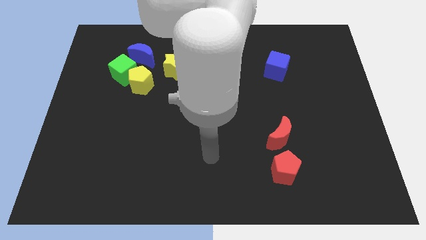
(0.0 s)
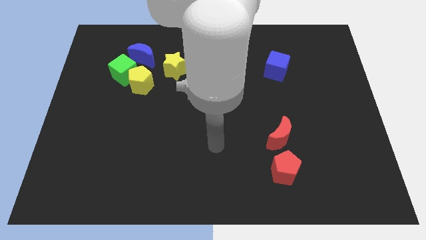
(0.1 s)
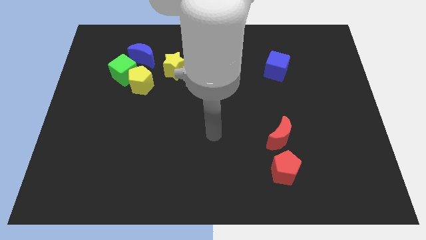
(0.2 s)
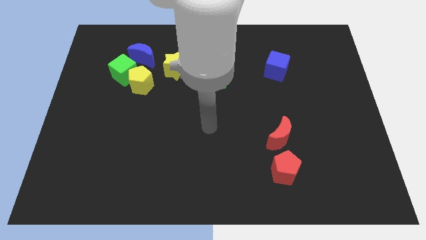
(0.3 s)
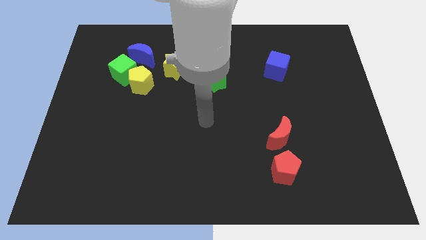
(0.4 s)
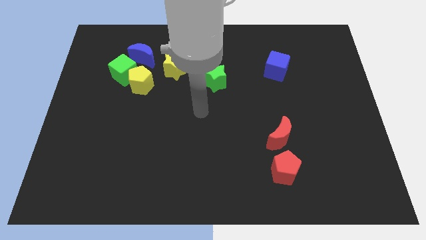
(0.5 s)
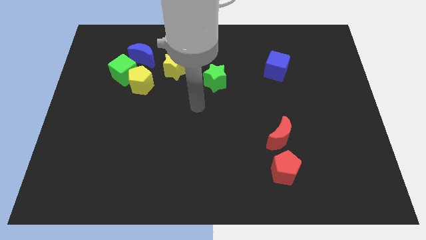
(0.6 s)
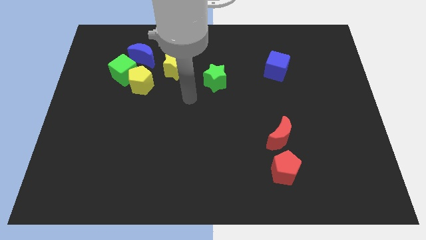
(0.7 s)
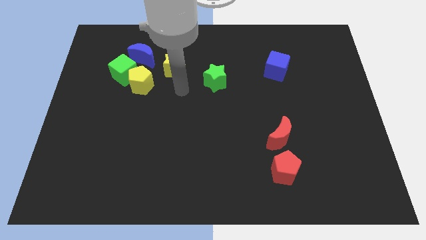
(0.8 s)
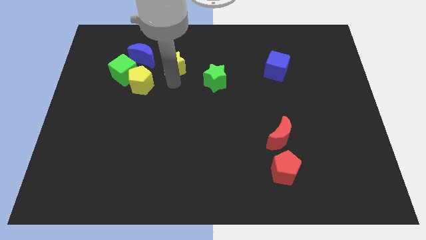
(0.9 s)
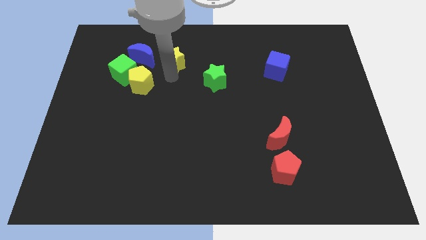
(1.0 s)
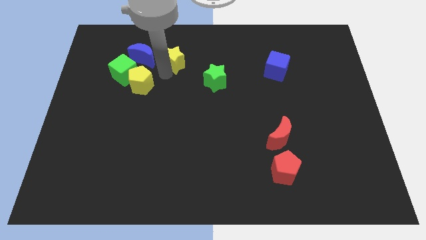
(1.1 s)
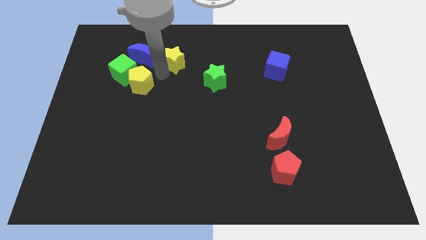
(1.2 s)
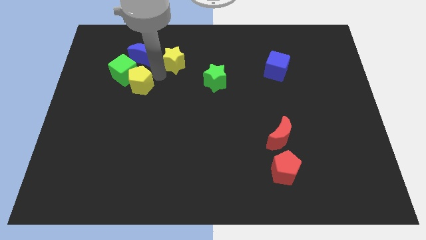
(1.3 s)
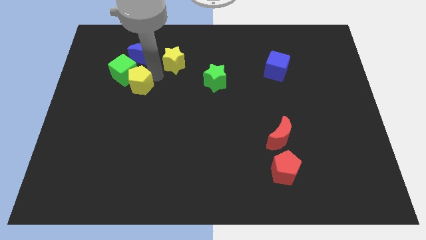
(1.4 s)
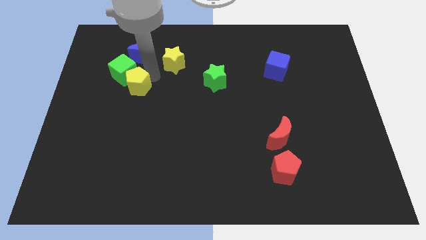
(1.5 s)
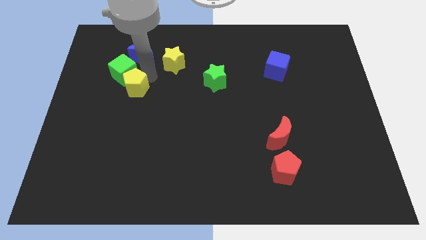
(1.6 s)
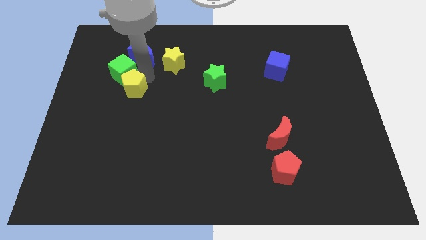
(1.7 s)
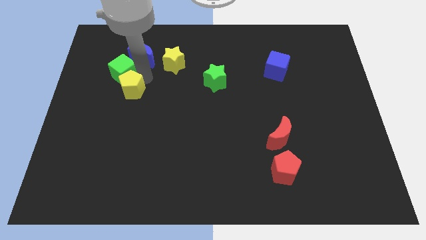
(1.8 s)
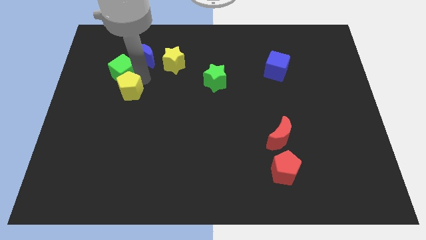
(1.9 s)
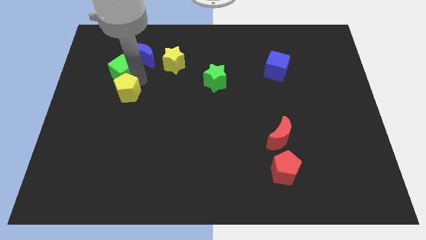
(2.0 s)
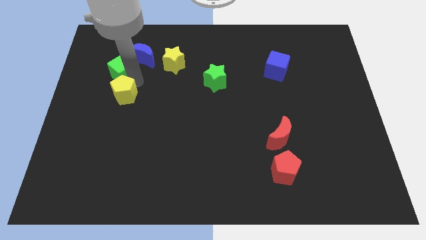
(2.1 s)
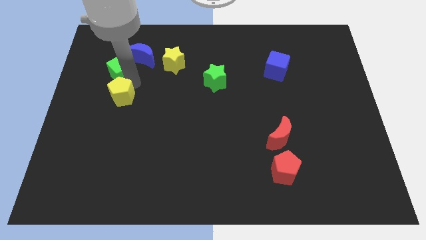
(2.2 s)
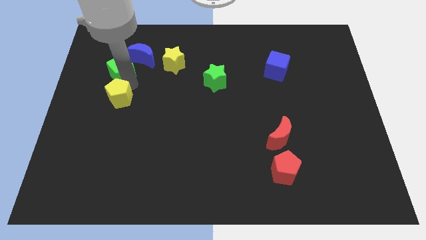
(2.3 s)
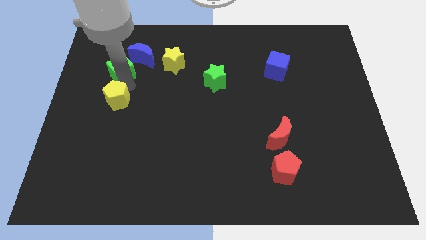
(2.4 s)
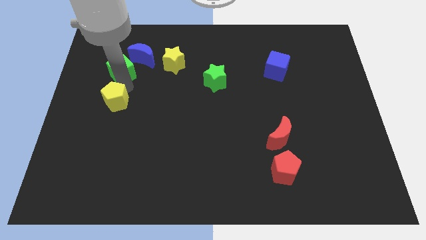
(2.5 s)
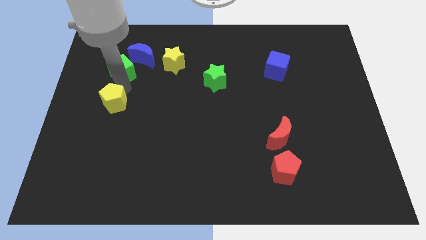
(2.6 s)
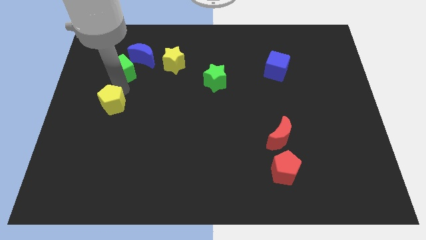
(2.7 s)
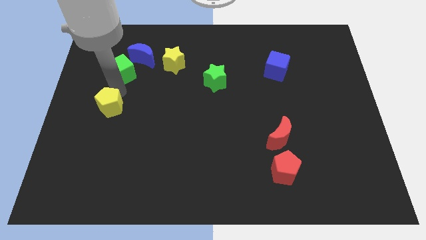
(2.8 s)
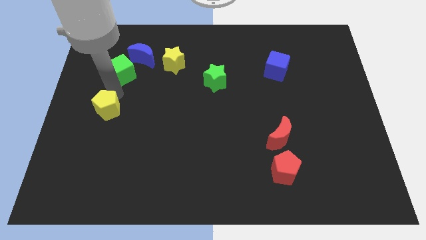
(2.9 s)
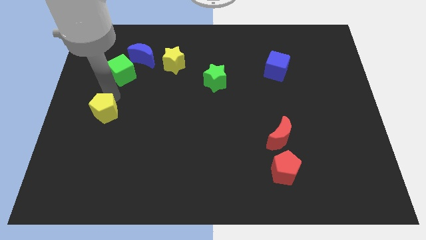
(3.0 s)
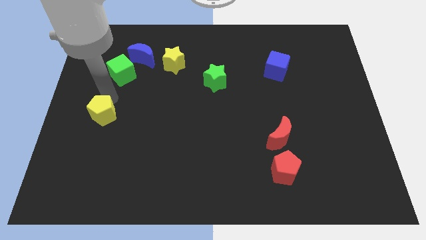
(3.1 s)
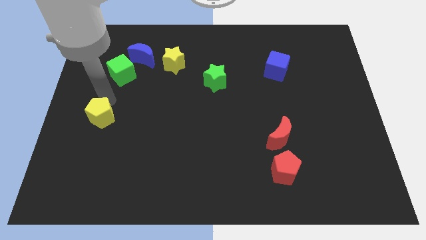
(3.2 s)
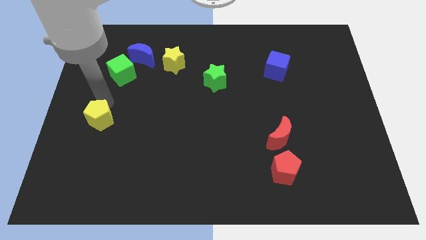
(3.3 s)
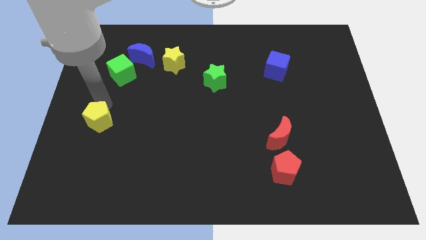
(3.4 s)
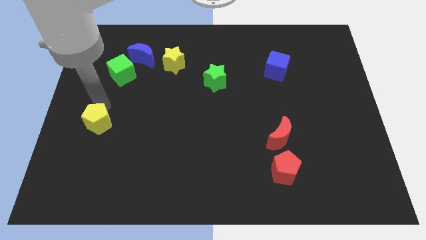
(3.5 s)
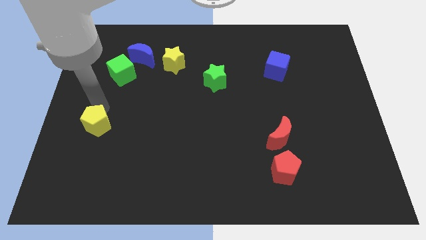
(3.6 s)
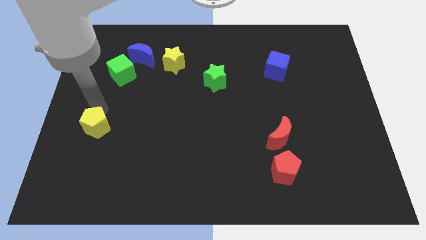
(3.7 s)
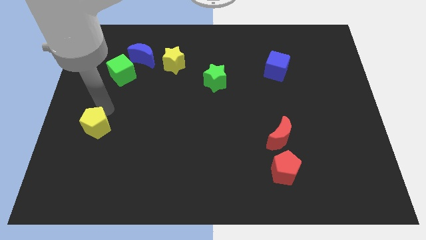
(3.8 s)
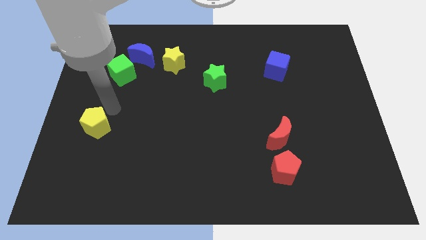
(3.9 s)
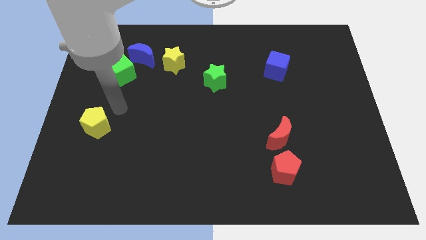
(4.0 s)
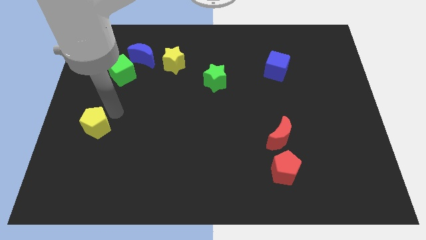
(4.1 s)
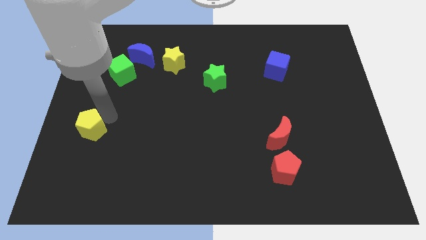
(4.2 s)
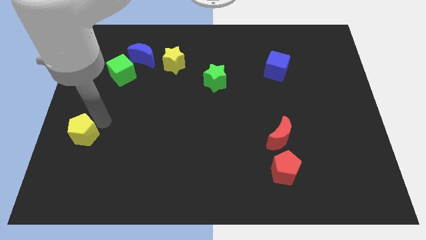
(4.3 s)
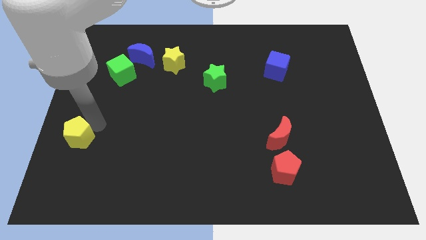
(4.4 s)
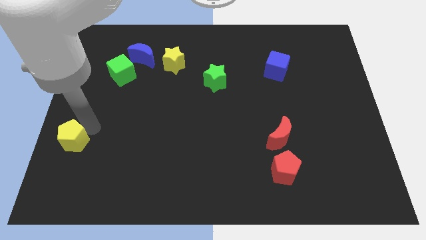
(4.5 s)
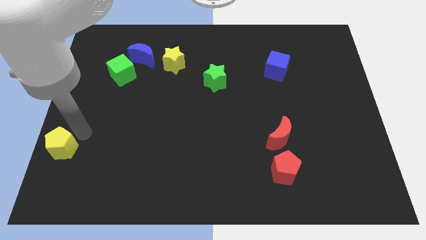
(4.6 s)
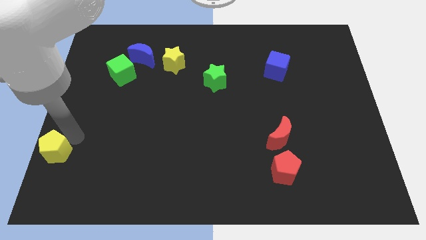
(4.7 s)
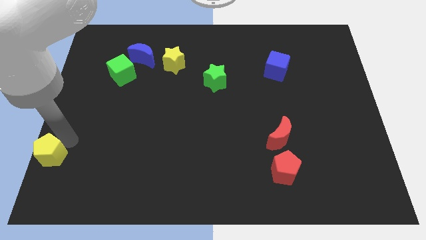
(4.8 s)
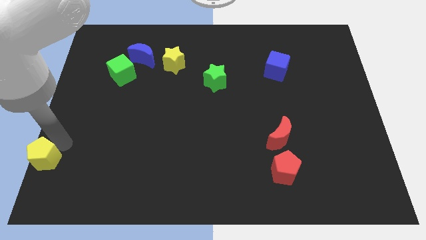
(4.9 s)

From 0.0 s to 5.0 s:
slide the yellow pentagon to the bottom left corner

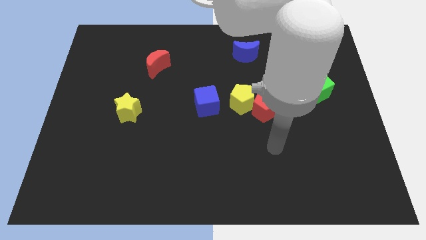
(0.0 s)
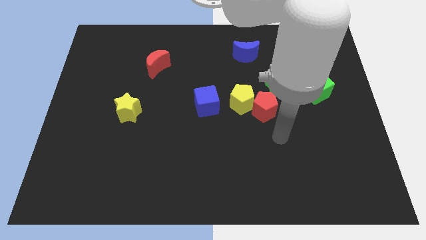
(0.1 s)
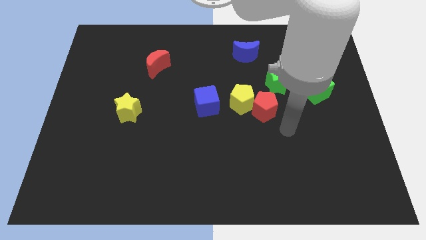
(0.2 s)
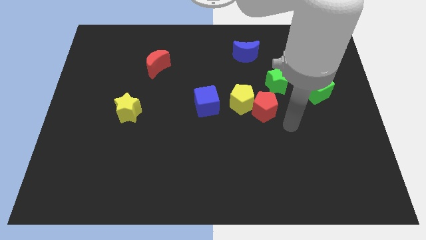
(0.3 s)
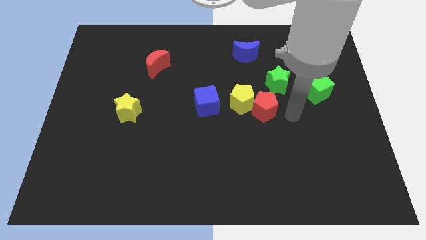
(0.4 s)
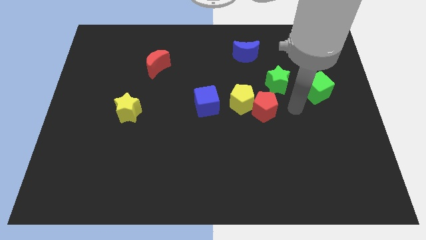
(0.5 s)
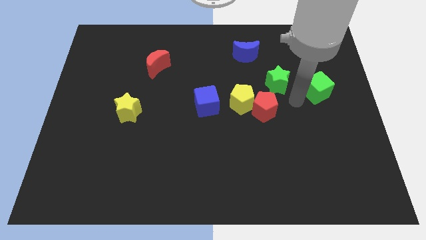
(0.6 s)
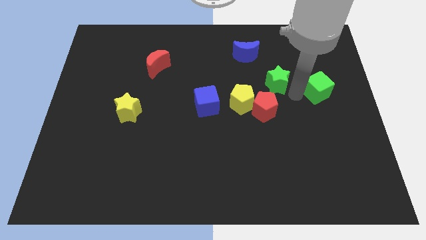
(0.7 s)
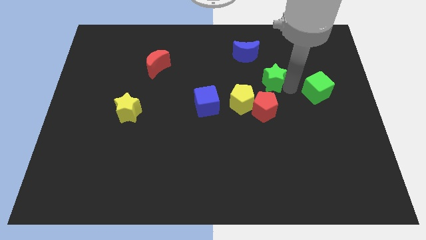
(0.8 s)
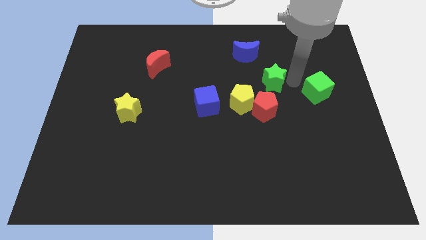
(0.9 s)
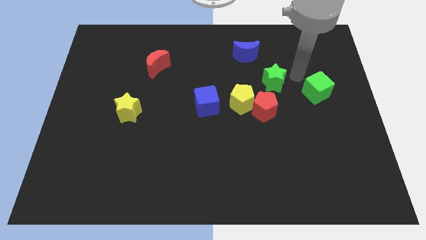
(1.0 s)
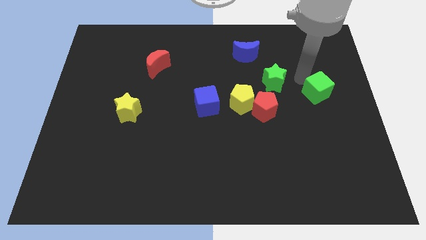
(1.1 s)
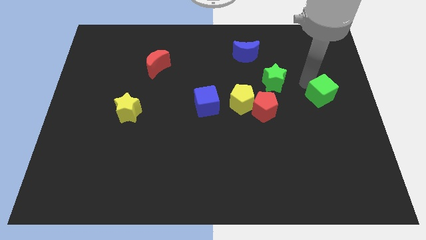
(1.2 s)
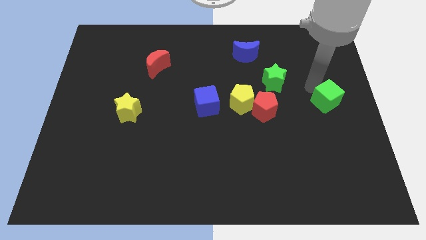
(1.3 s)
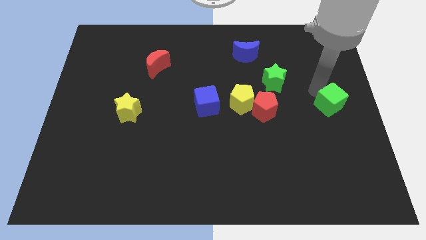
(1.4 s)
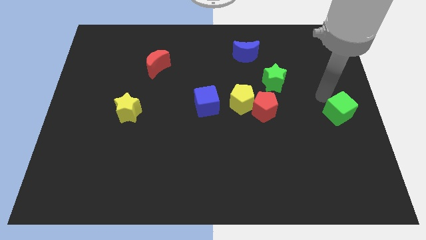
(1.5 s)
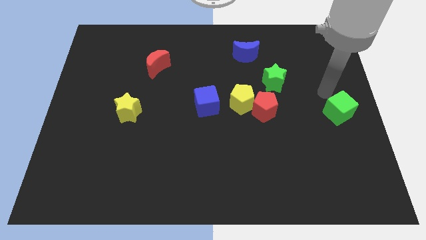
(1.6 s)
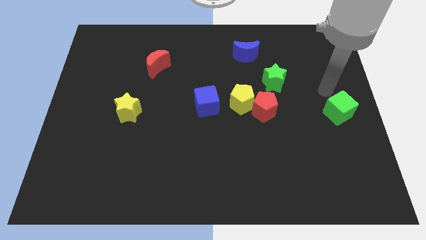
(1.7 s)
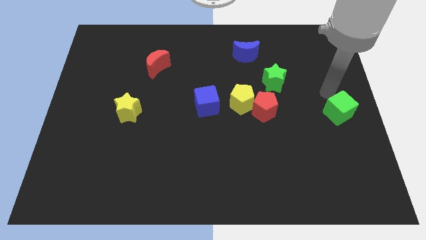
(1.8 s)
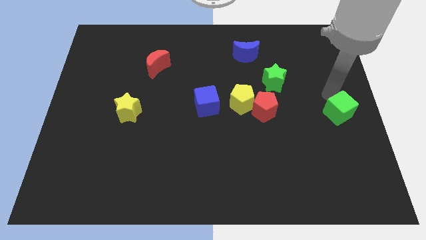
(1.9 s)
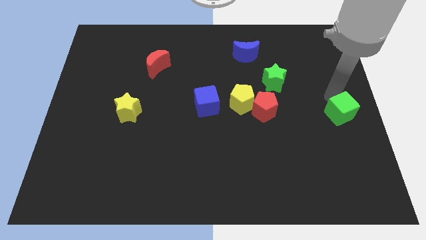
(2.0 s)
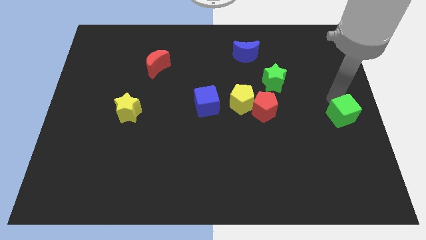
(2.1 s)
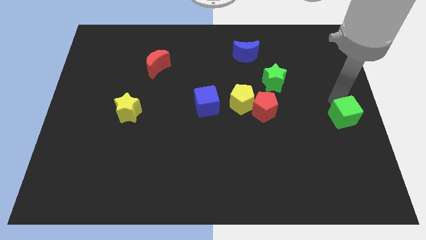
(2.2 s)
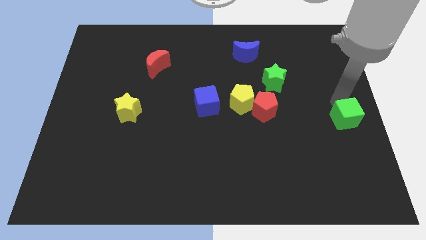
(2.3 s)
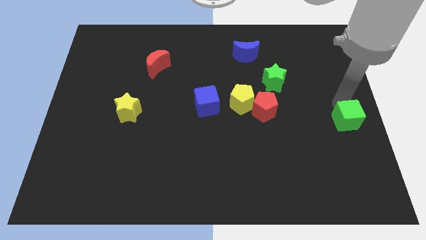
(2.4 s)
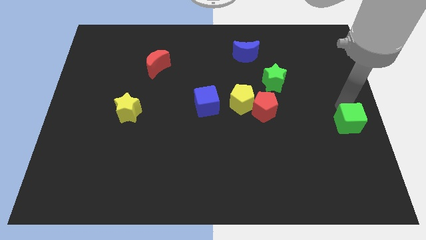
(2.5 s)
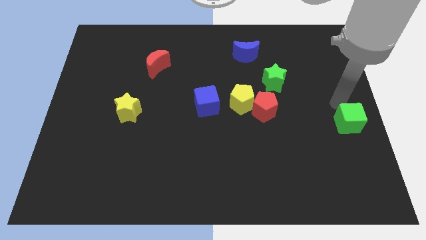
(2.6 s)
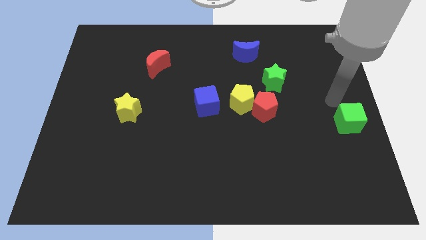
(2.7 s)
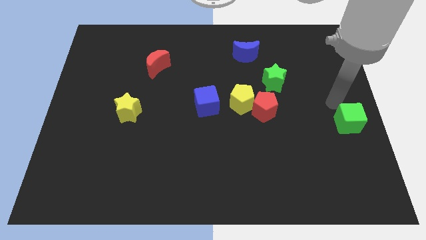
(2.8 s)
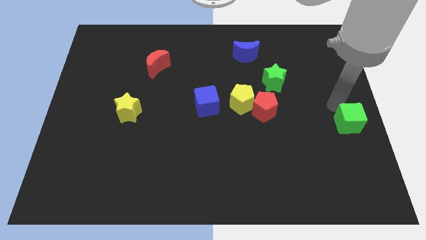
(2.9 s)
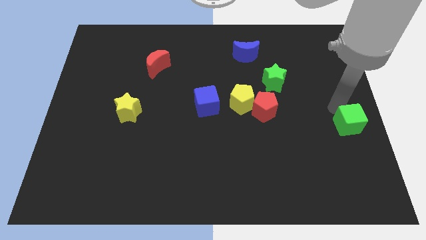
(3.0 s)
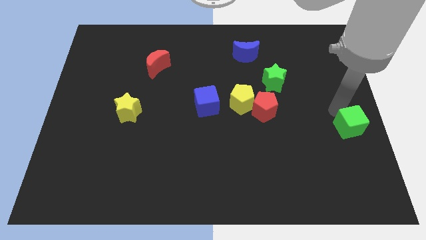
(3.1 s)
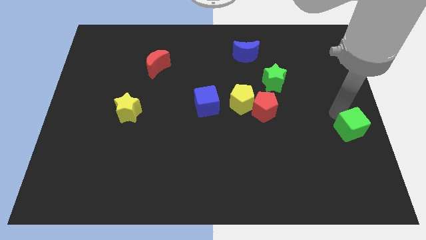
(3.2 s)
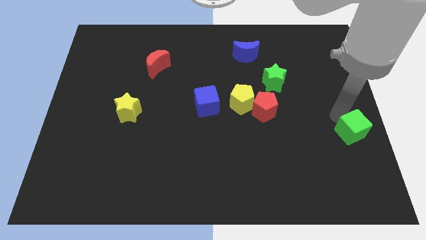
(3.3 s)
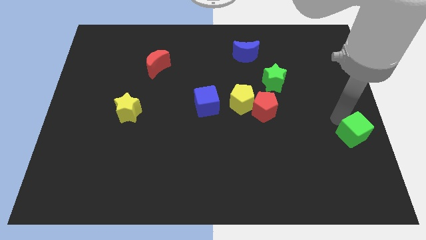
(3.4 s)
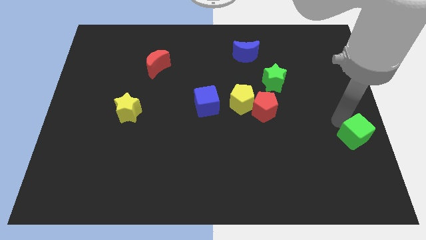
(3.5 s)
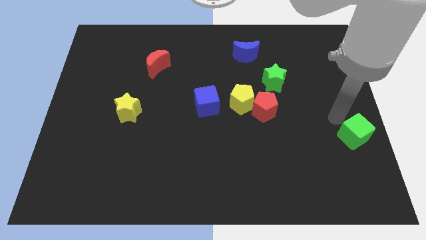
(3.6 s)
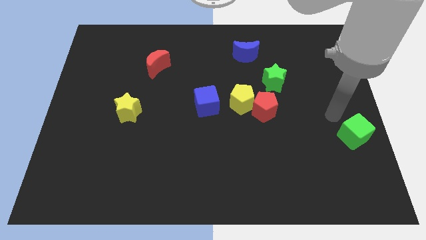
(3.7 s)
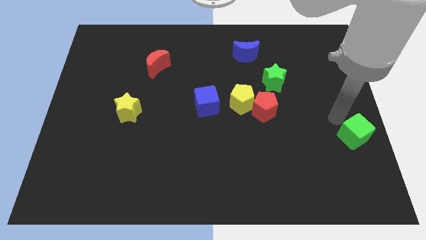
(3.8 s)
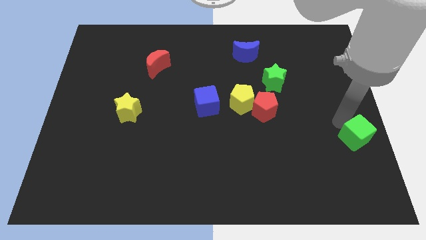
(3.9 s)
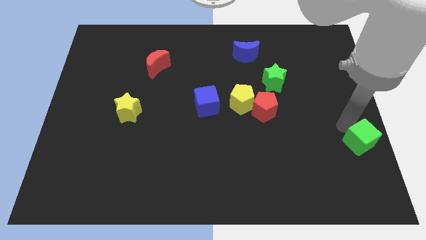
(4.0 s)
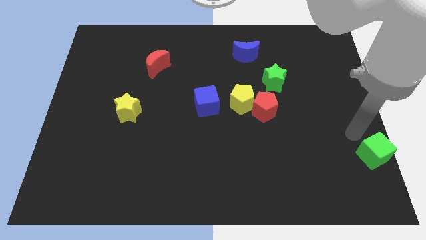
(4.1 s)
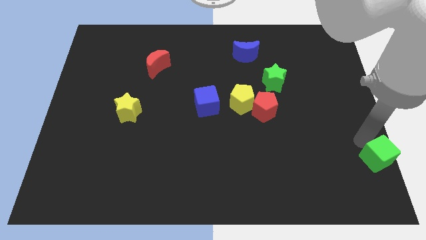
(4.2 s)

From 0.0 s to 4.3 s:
move the green cube to the bottom right
